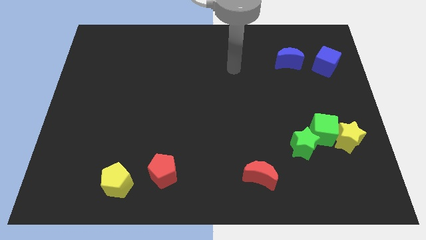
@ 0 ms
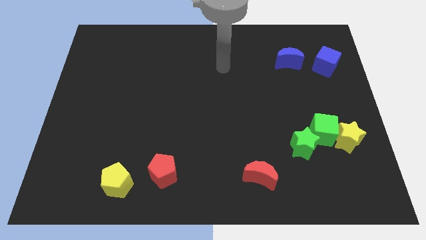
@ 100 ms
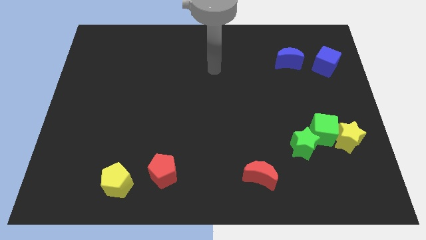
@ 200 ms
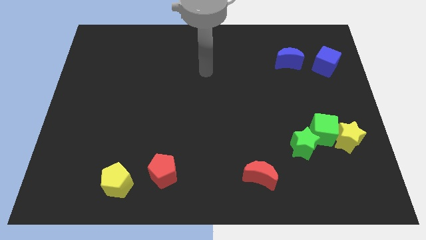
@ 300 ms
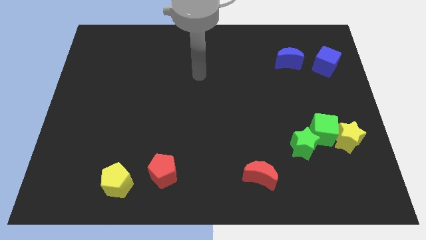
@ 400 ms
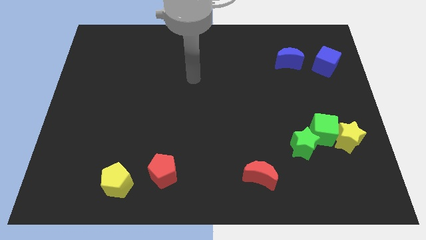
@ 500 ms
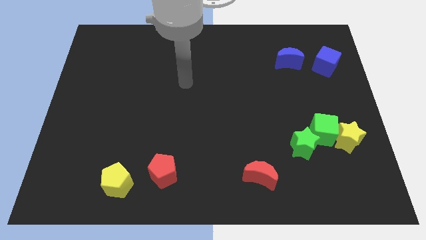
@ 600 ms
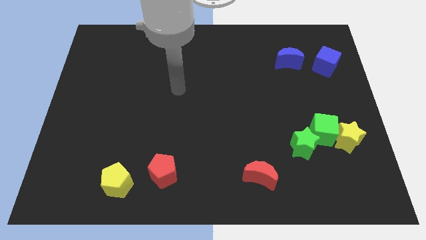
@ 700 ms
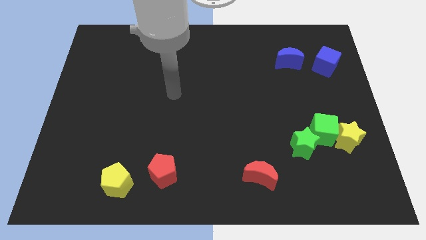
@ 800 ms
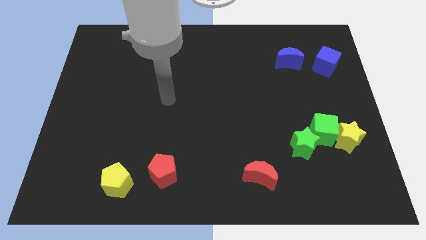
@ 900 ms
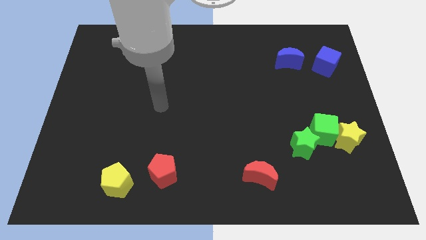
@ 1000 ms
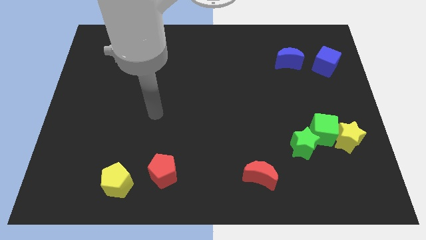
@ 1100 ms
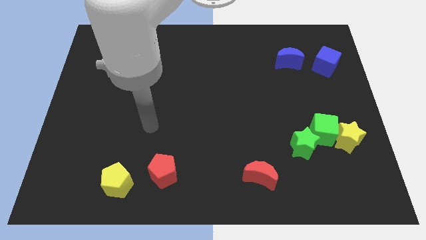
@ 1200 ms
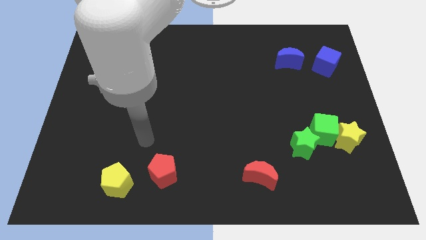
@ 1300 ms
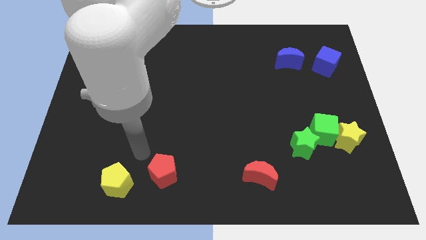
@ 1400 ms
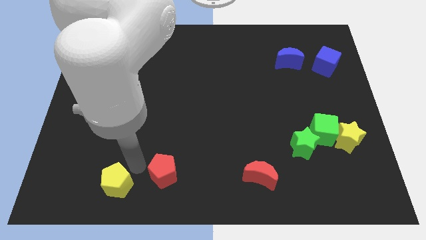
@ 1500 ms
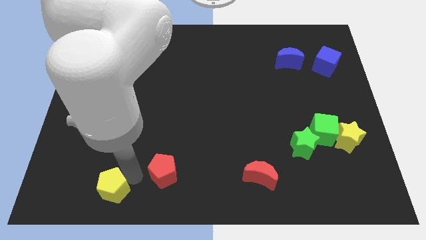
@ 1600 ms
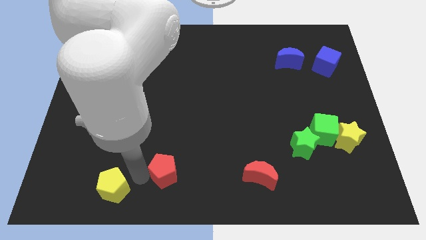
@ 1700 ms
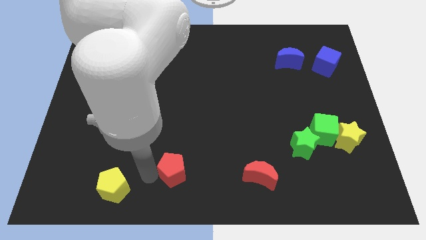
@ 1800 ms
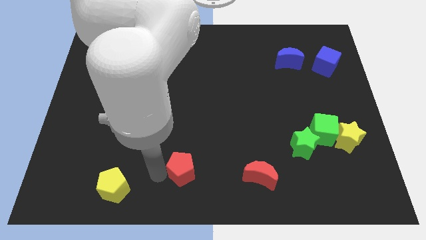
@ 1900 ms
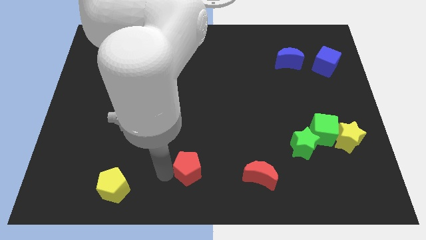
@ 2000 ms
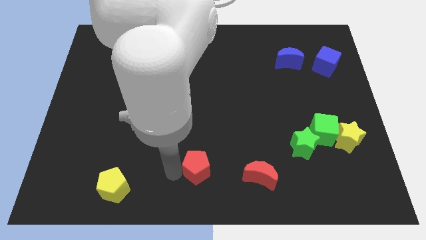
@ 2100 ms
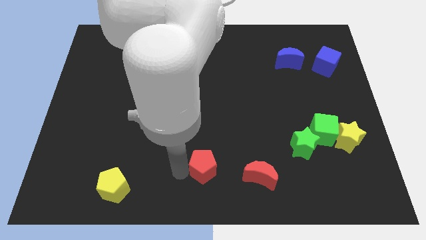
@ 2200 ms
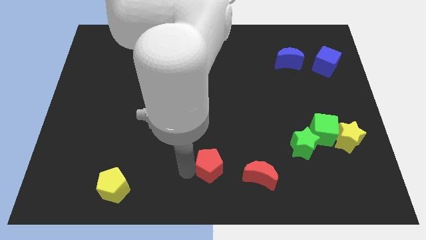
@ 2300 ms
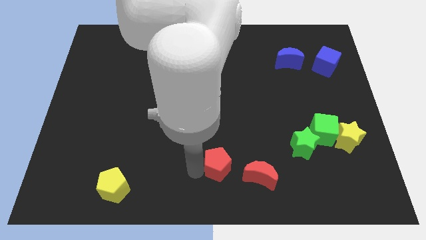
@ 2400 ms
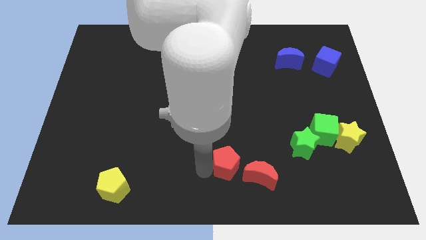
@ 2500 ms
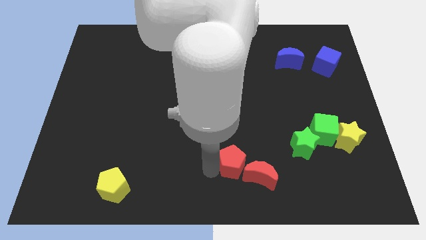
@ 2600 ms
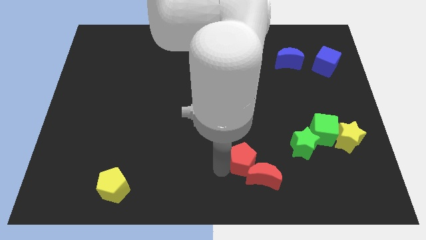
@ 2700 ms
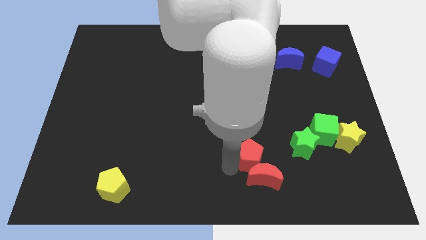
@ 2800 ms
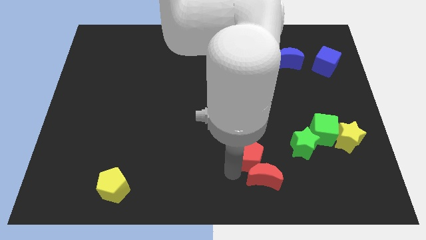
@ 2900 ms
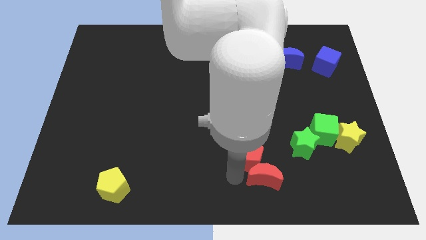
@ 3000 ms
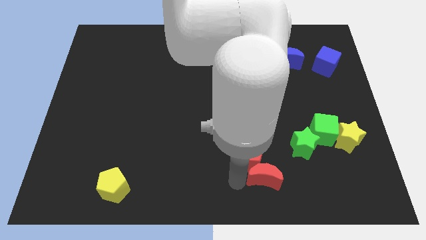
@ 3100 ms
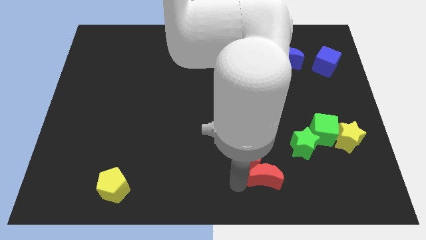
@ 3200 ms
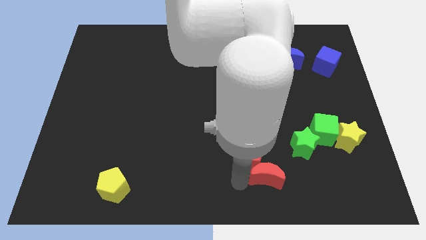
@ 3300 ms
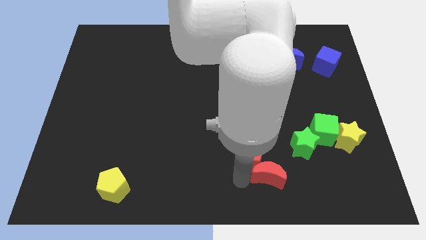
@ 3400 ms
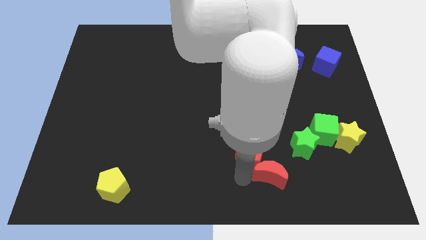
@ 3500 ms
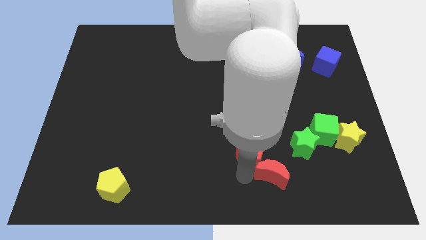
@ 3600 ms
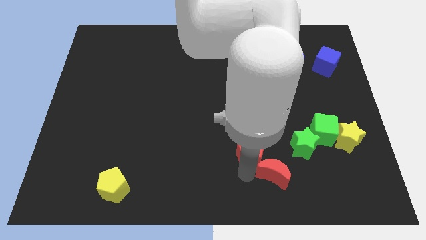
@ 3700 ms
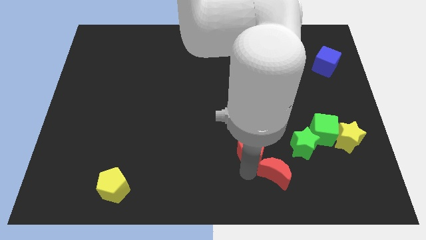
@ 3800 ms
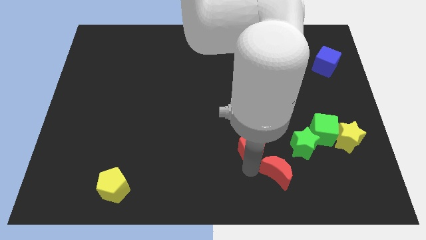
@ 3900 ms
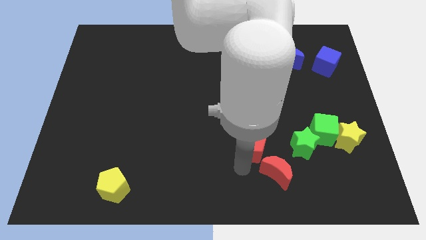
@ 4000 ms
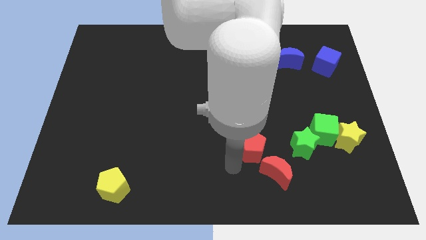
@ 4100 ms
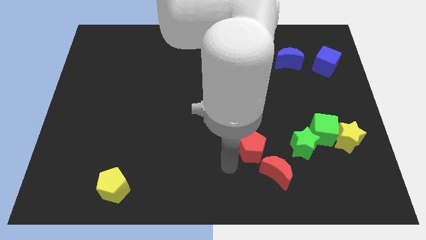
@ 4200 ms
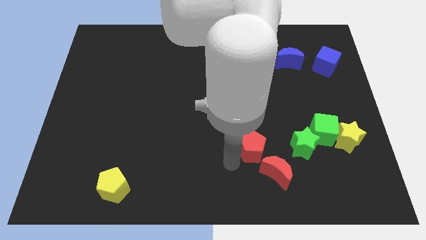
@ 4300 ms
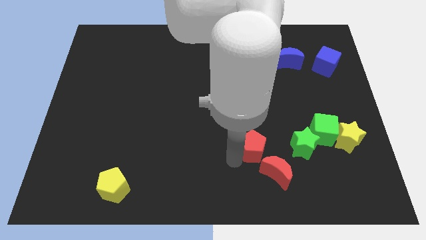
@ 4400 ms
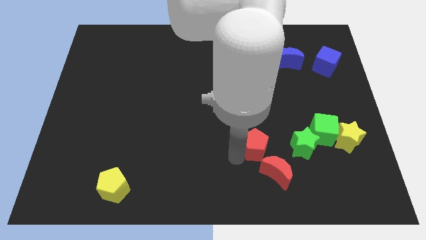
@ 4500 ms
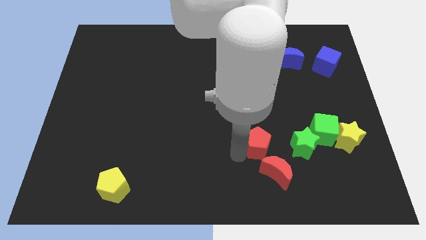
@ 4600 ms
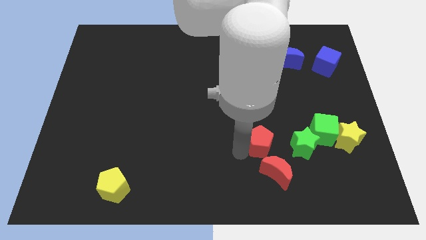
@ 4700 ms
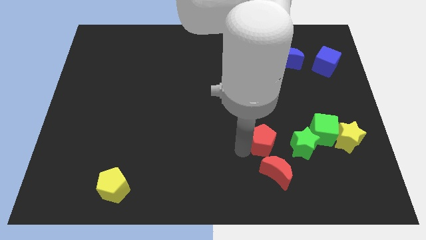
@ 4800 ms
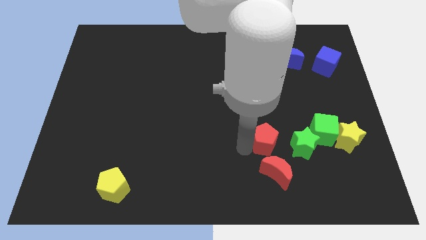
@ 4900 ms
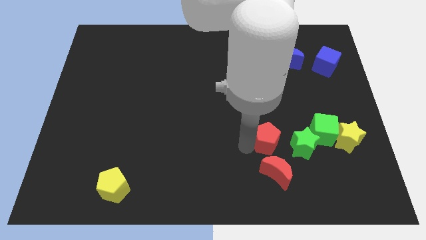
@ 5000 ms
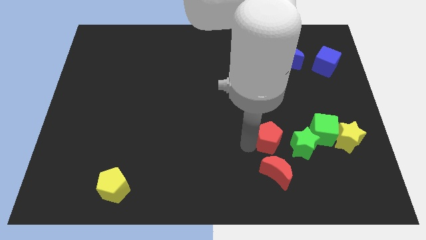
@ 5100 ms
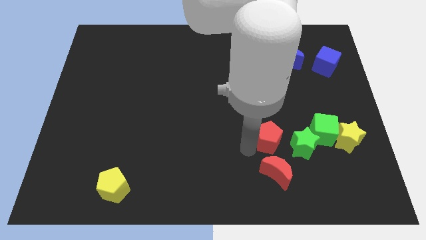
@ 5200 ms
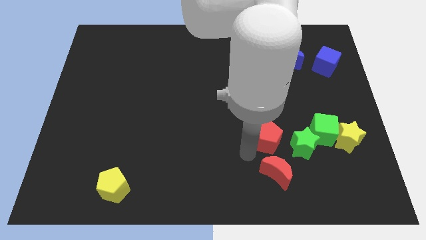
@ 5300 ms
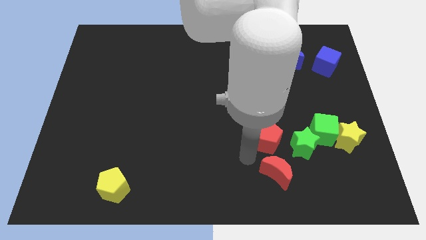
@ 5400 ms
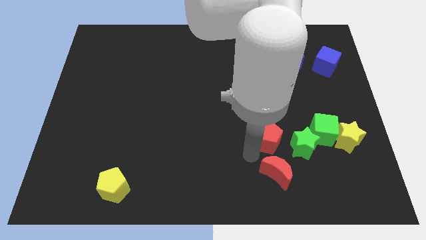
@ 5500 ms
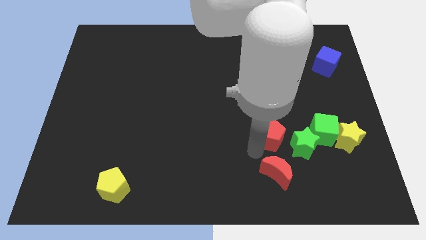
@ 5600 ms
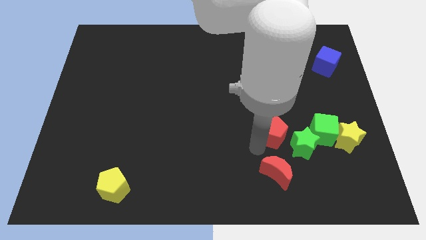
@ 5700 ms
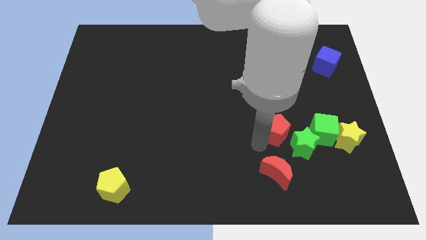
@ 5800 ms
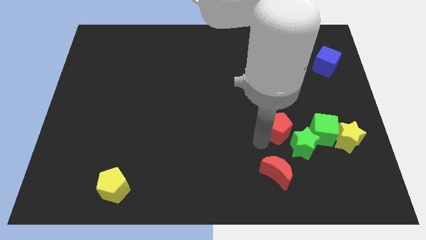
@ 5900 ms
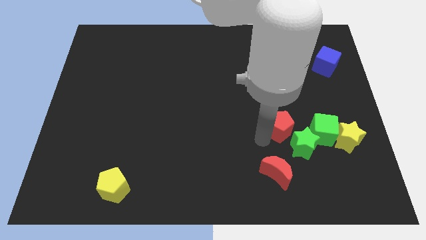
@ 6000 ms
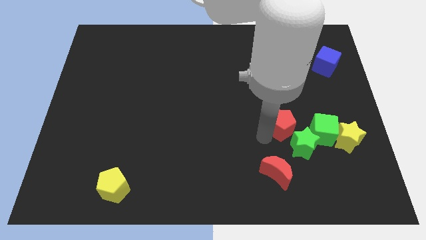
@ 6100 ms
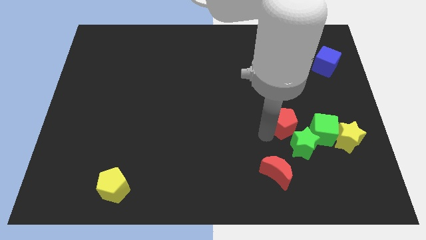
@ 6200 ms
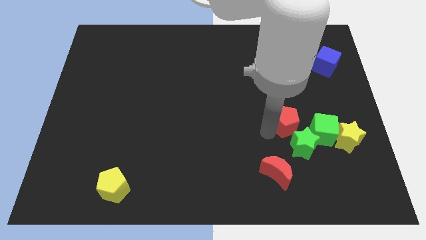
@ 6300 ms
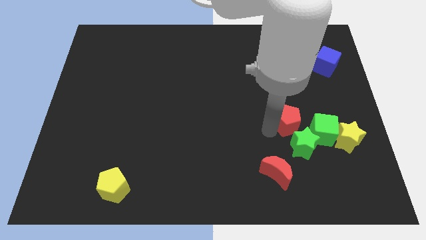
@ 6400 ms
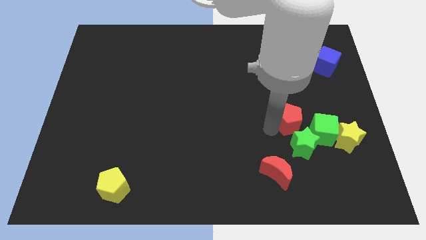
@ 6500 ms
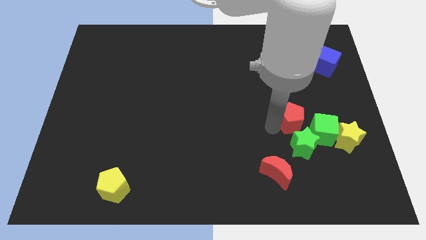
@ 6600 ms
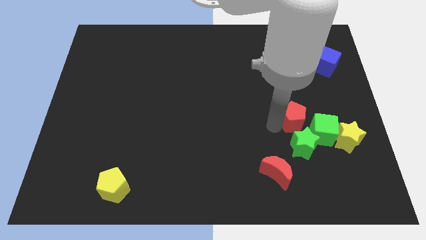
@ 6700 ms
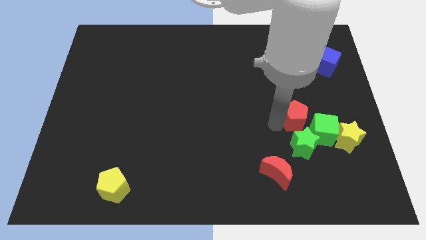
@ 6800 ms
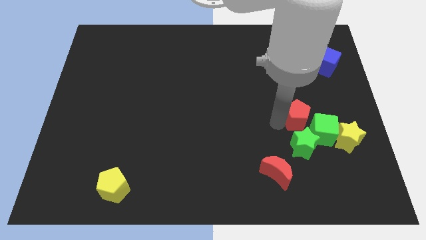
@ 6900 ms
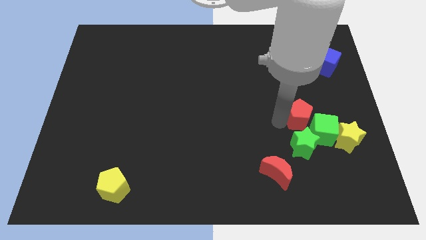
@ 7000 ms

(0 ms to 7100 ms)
slide the red pentagon towards the green cube
